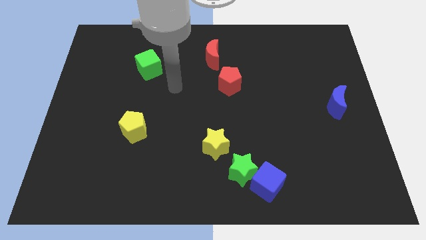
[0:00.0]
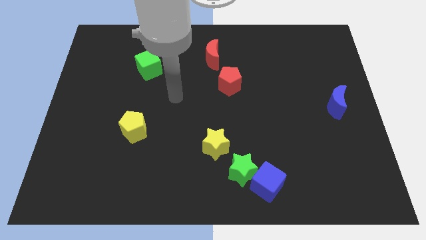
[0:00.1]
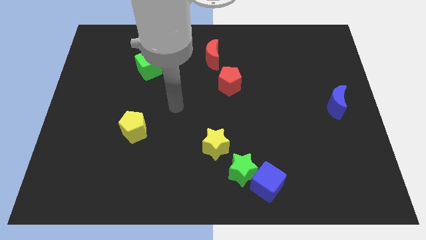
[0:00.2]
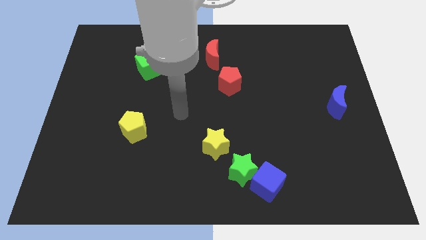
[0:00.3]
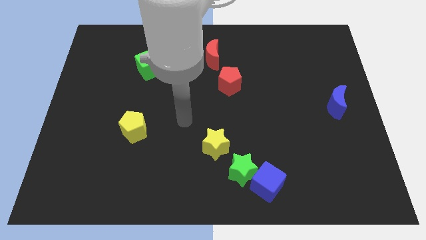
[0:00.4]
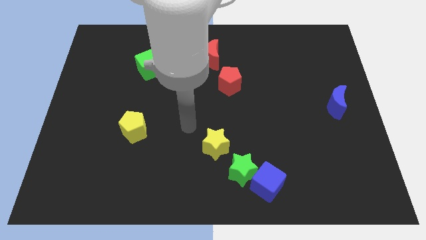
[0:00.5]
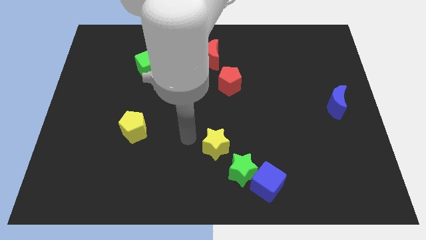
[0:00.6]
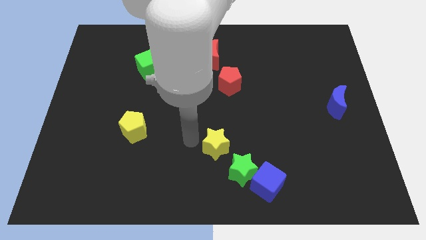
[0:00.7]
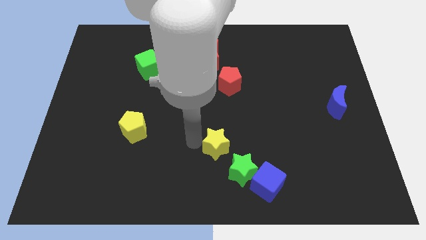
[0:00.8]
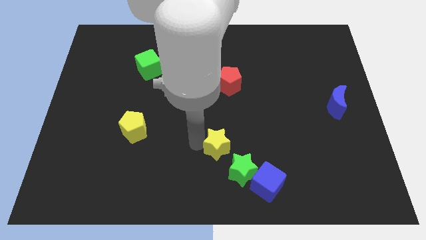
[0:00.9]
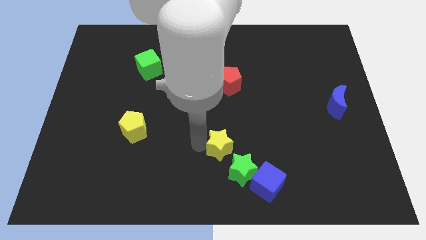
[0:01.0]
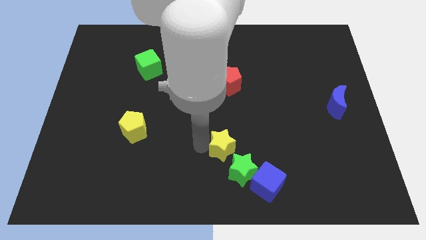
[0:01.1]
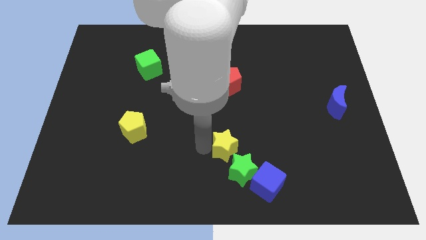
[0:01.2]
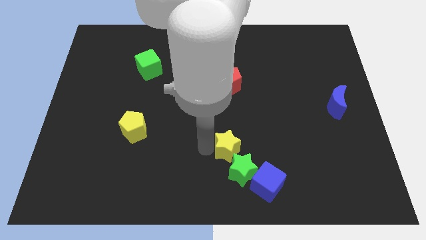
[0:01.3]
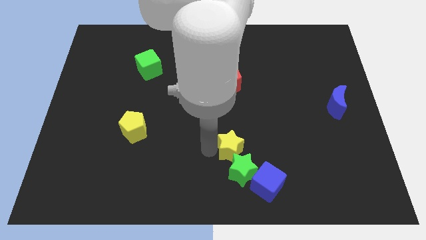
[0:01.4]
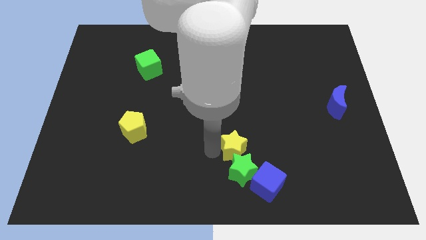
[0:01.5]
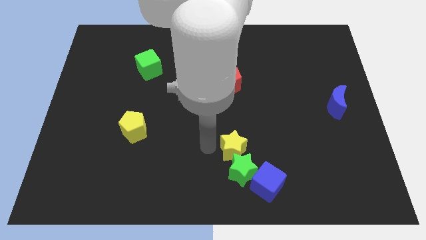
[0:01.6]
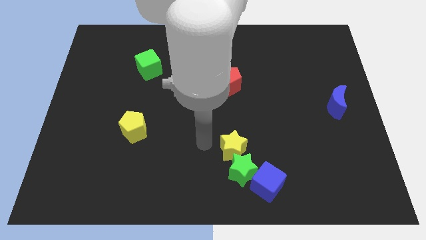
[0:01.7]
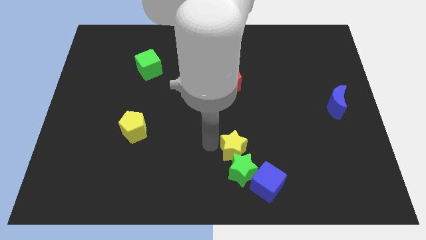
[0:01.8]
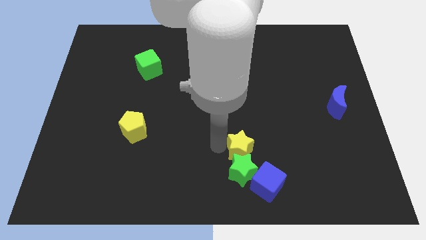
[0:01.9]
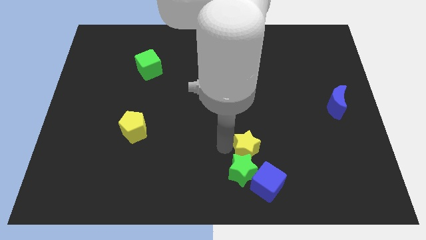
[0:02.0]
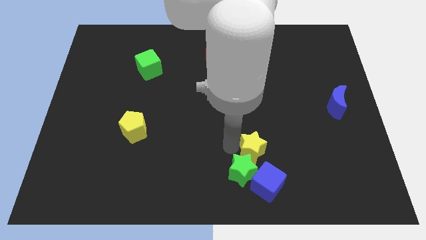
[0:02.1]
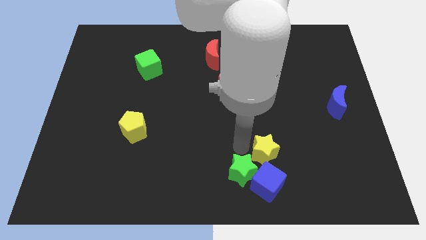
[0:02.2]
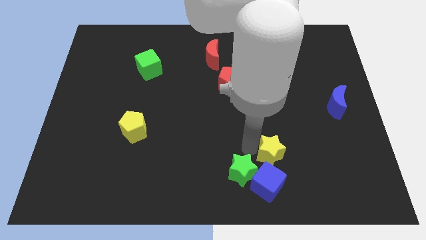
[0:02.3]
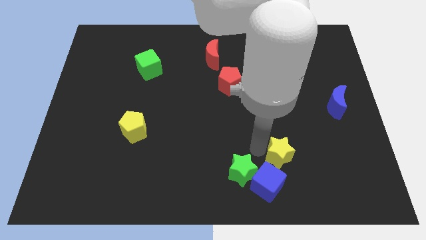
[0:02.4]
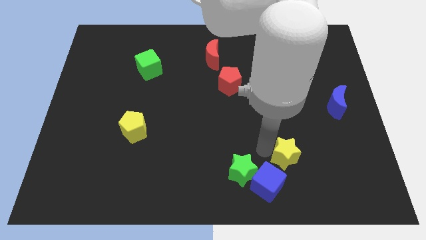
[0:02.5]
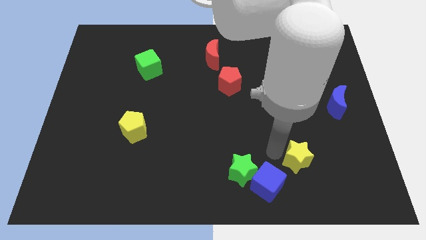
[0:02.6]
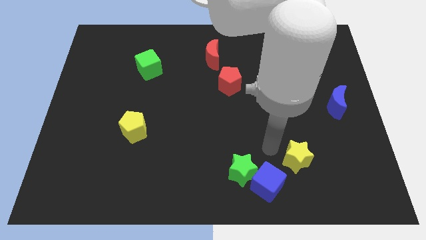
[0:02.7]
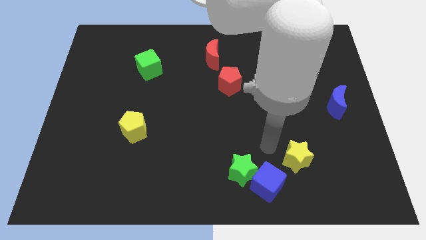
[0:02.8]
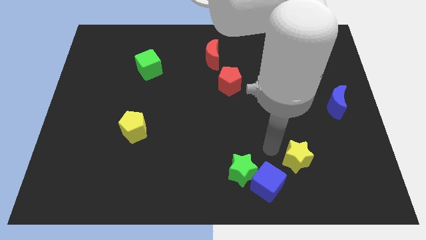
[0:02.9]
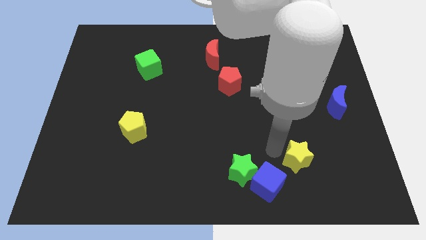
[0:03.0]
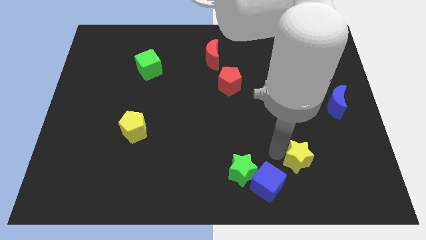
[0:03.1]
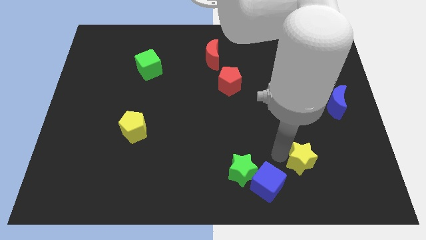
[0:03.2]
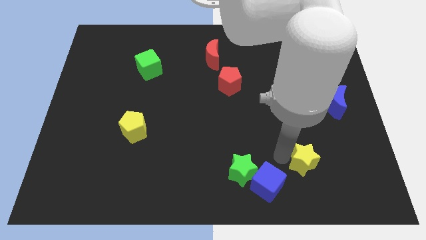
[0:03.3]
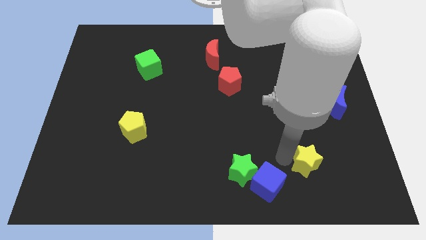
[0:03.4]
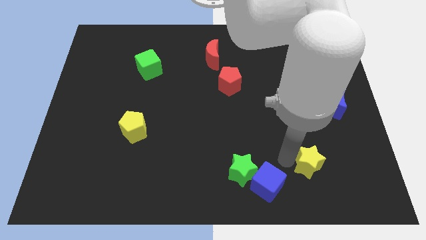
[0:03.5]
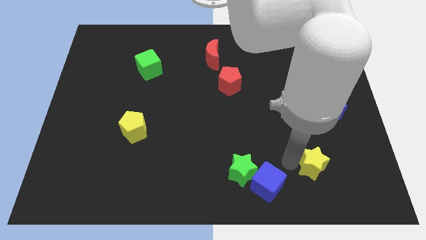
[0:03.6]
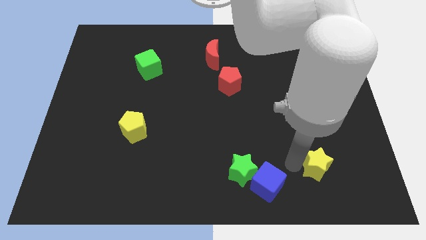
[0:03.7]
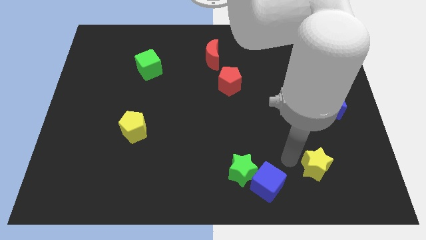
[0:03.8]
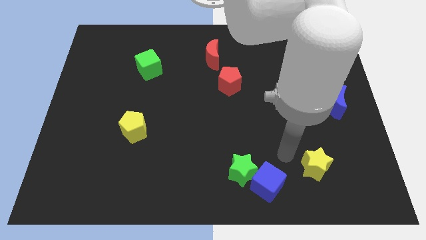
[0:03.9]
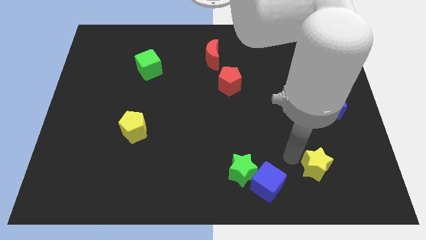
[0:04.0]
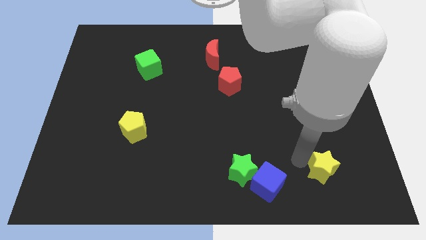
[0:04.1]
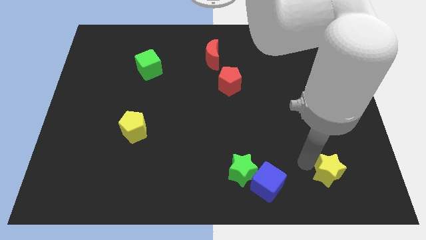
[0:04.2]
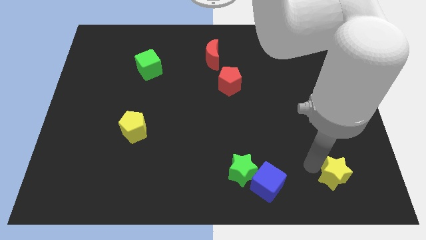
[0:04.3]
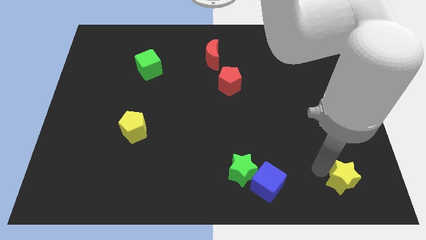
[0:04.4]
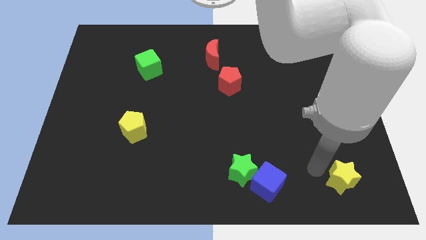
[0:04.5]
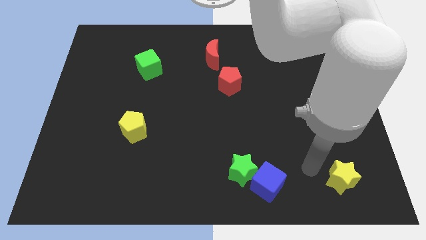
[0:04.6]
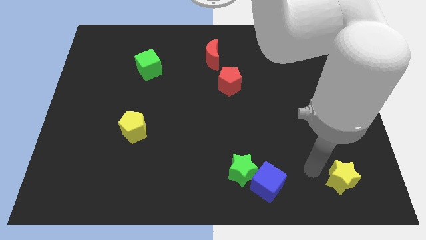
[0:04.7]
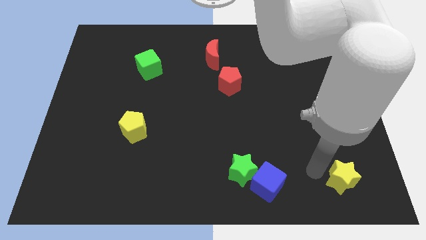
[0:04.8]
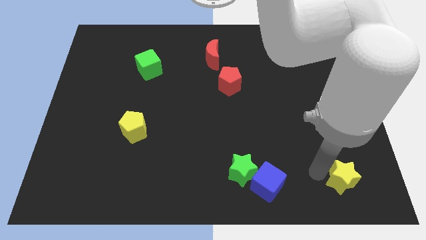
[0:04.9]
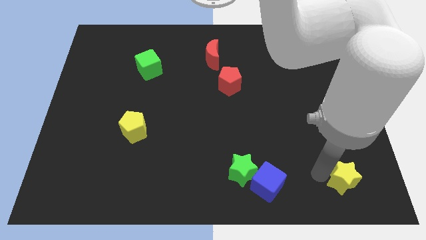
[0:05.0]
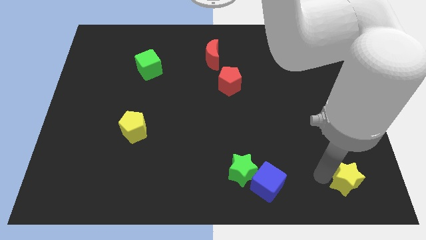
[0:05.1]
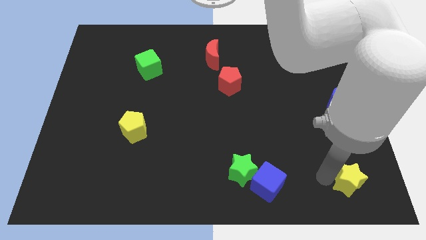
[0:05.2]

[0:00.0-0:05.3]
move the yellow star to the lower right corner

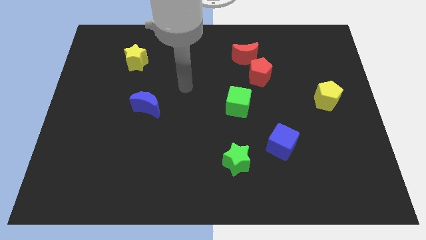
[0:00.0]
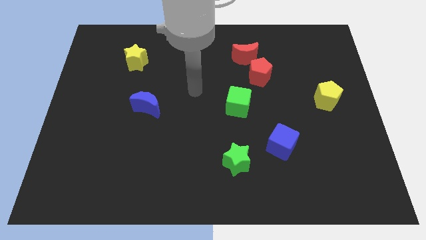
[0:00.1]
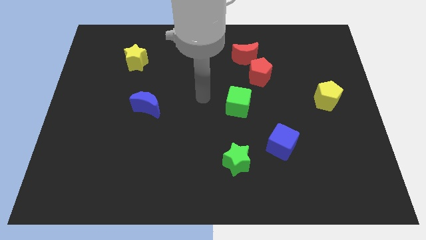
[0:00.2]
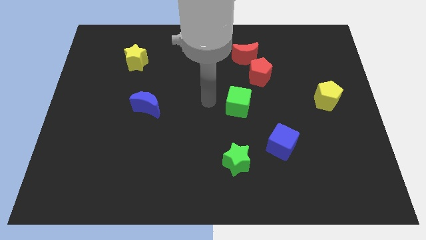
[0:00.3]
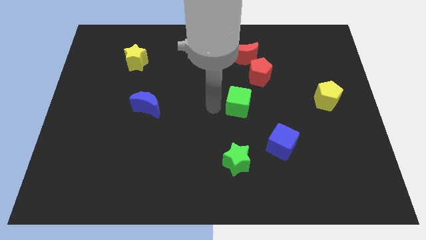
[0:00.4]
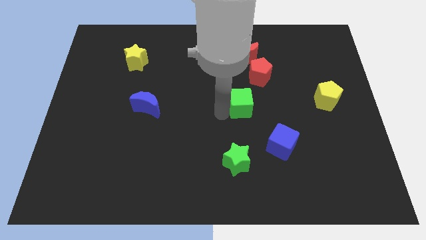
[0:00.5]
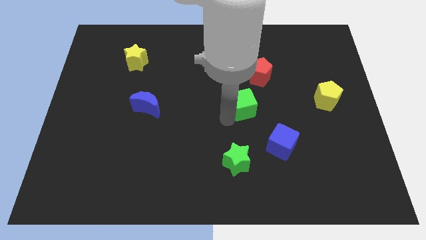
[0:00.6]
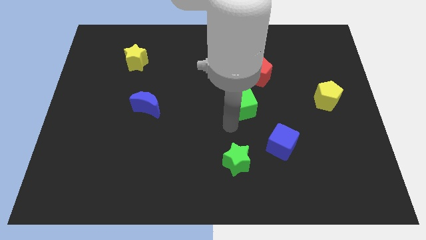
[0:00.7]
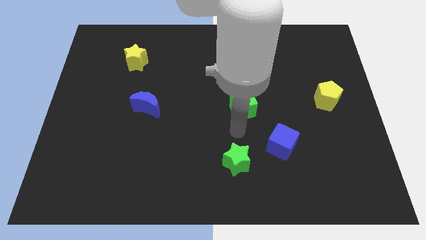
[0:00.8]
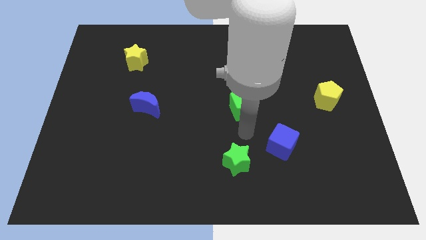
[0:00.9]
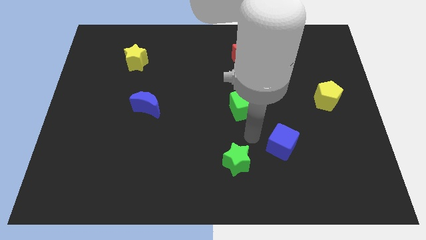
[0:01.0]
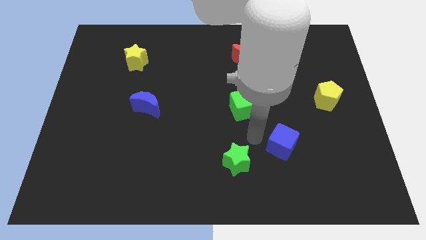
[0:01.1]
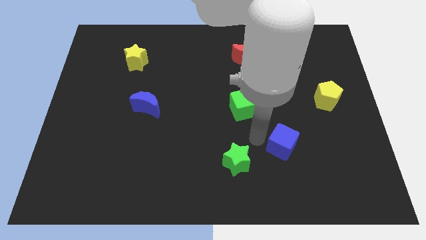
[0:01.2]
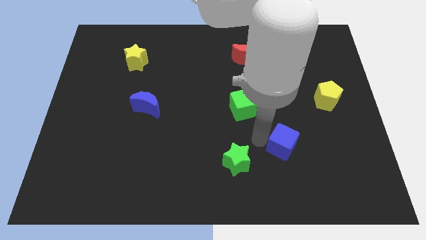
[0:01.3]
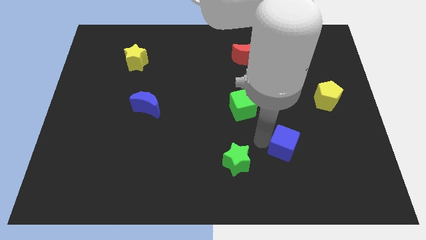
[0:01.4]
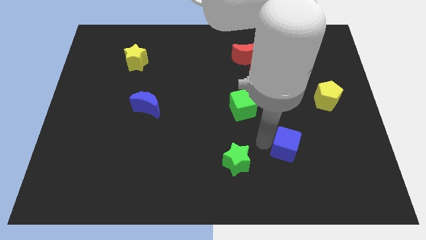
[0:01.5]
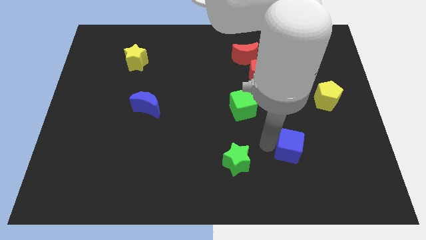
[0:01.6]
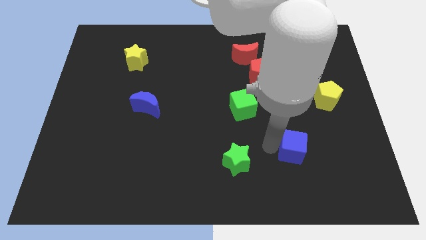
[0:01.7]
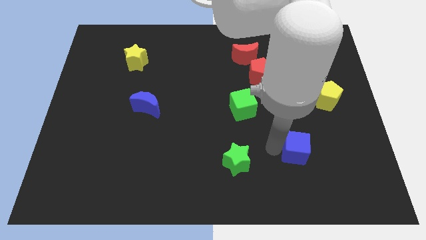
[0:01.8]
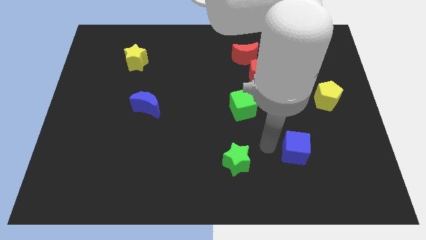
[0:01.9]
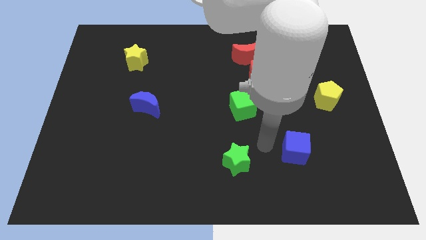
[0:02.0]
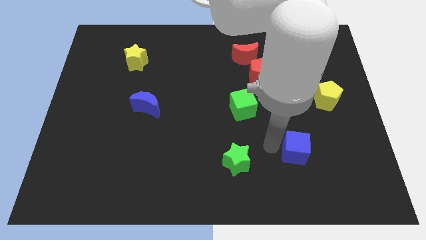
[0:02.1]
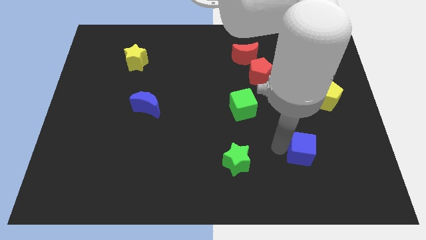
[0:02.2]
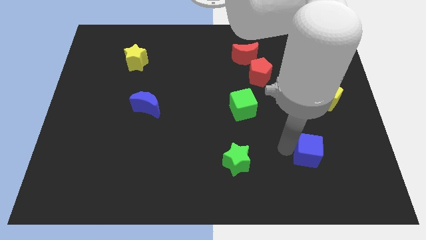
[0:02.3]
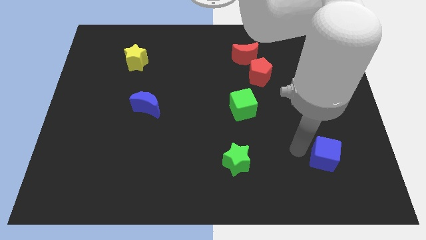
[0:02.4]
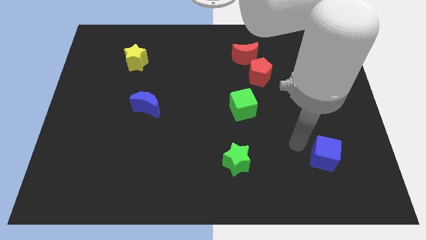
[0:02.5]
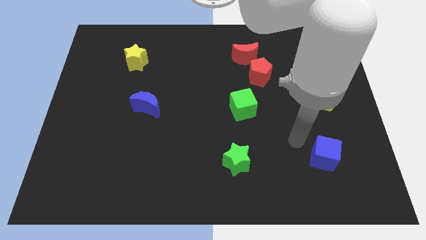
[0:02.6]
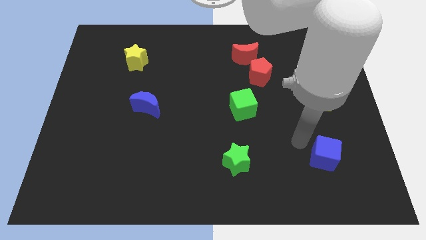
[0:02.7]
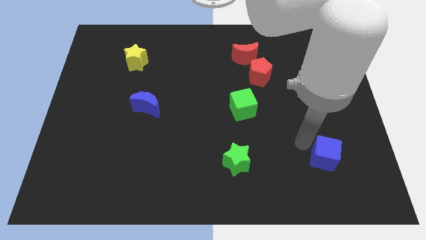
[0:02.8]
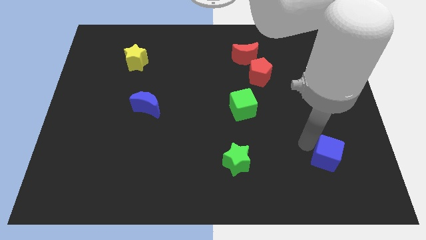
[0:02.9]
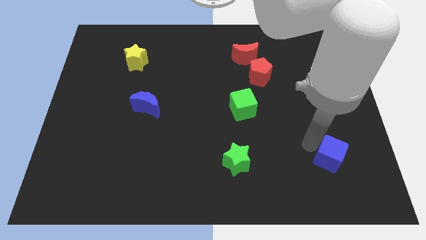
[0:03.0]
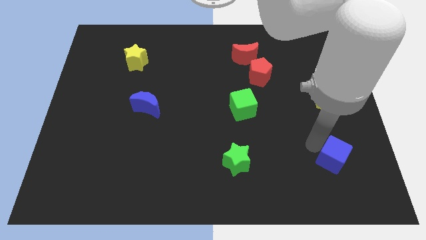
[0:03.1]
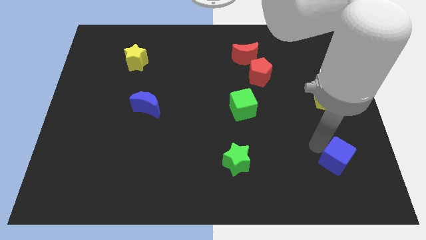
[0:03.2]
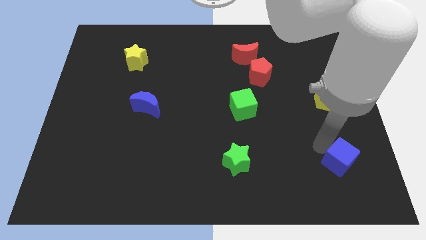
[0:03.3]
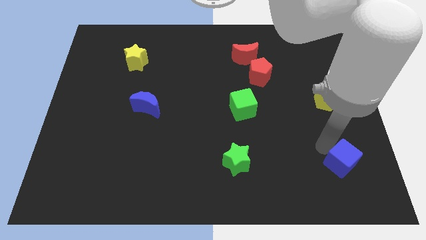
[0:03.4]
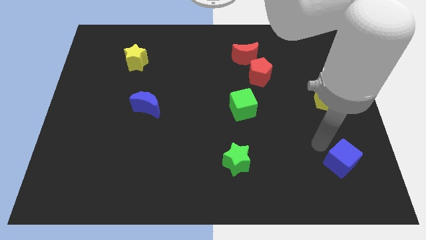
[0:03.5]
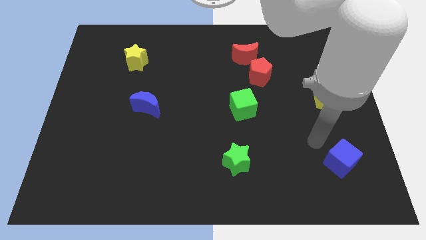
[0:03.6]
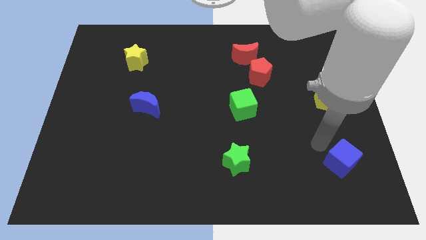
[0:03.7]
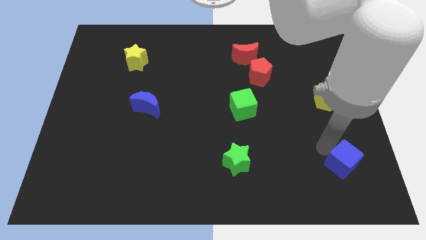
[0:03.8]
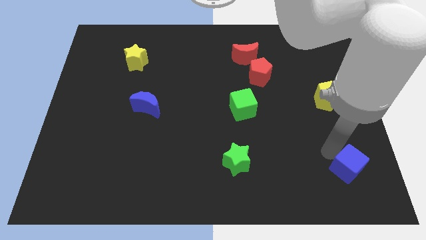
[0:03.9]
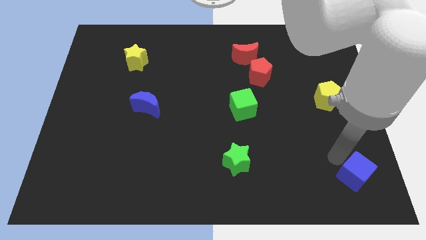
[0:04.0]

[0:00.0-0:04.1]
slide the blue cube to the bottom right corner
